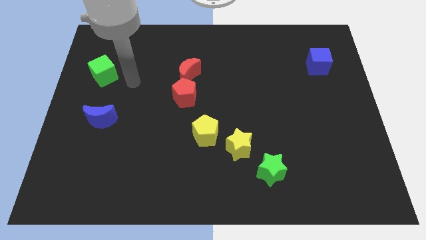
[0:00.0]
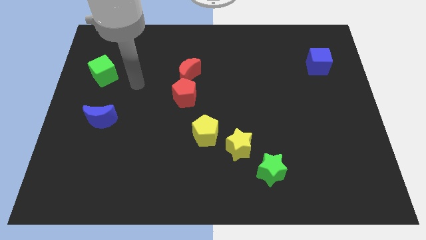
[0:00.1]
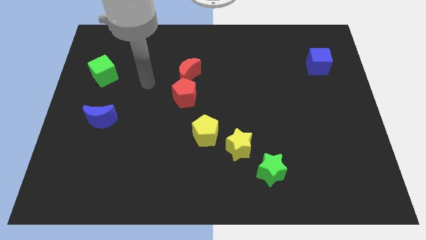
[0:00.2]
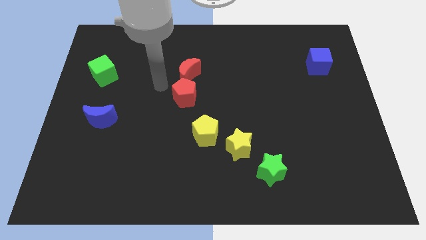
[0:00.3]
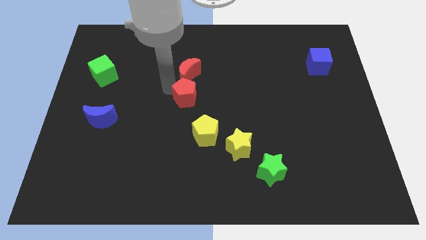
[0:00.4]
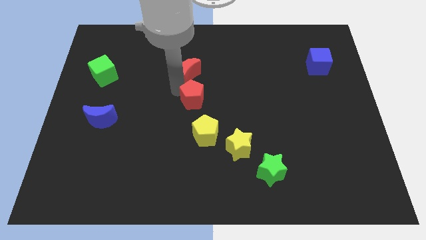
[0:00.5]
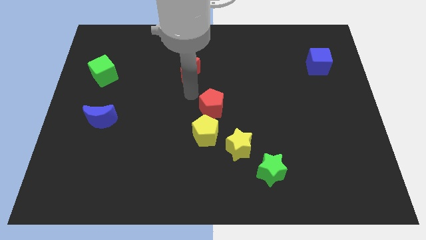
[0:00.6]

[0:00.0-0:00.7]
pull the red moon apart from the red pentagon

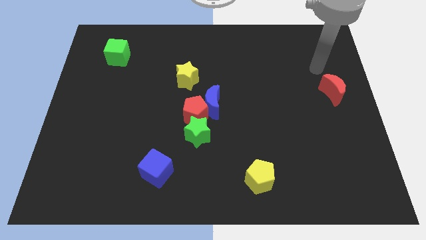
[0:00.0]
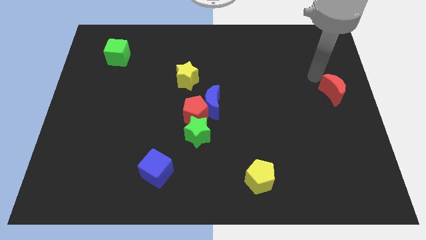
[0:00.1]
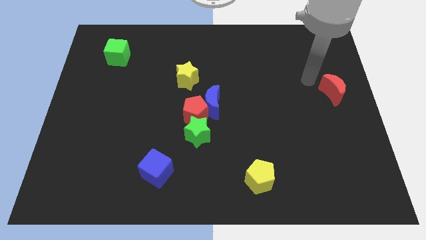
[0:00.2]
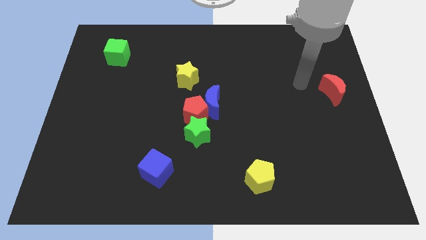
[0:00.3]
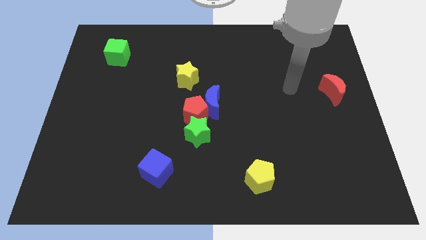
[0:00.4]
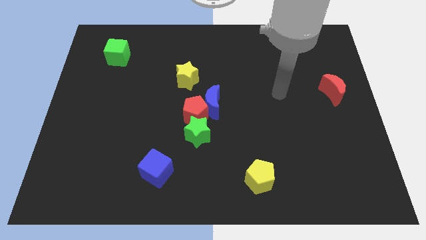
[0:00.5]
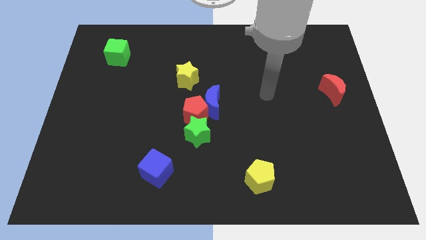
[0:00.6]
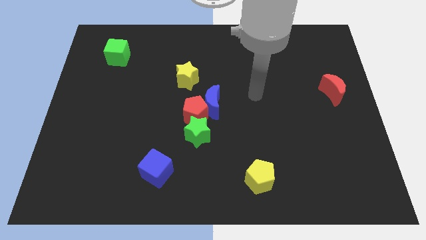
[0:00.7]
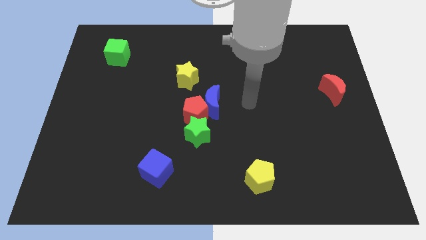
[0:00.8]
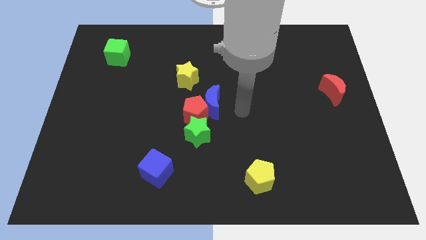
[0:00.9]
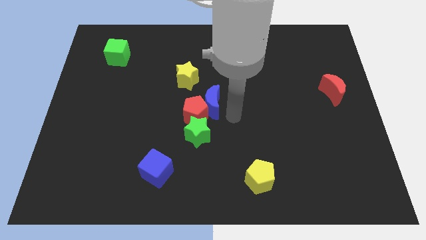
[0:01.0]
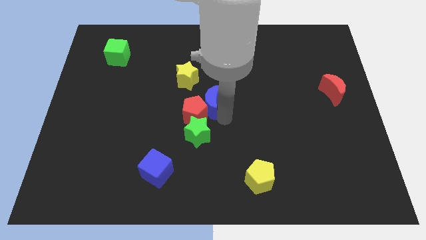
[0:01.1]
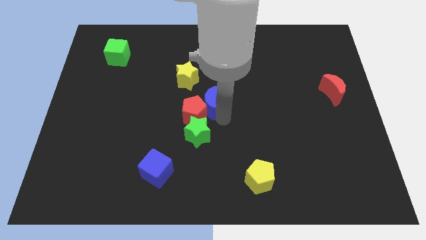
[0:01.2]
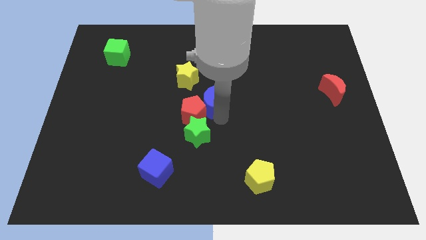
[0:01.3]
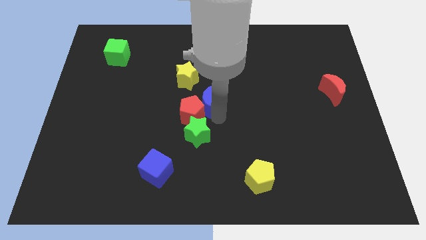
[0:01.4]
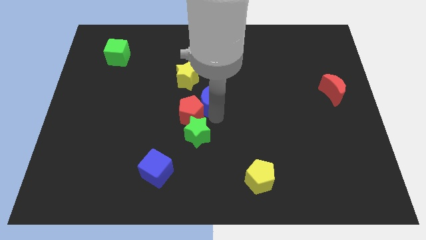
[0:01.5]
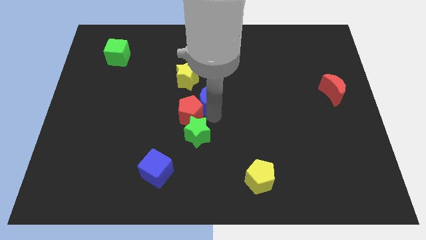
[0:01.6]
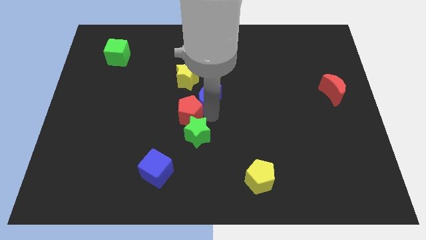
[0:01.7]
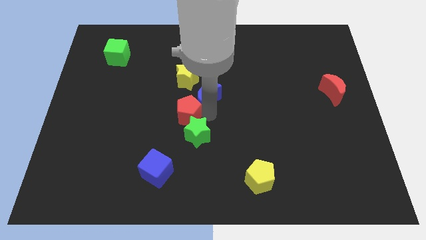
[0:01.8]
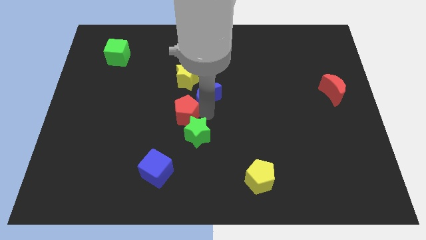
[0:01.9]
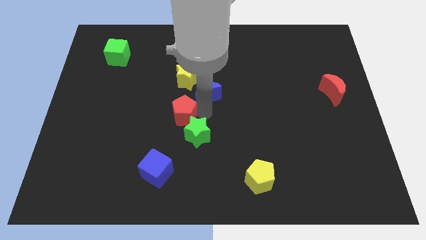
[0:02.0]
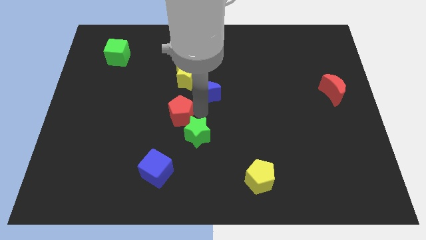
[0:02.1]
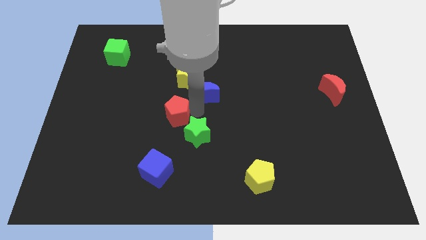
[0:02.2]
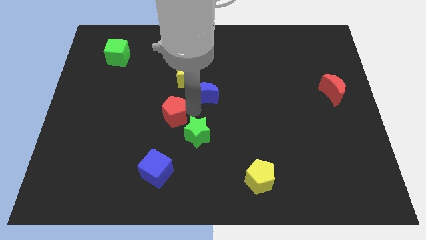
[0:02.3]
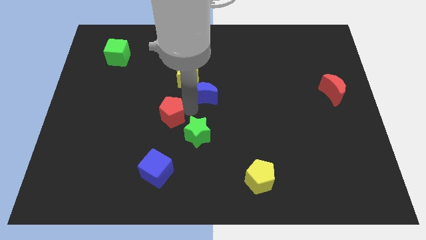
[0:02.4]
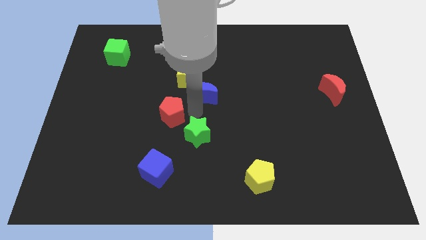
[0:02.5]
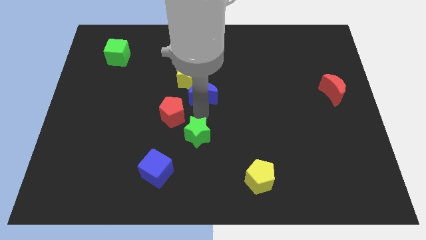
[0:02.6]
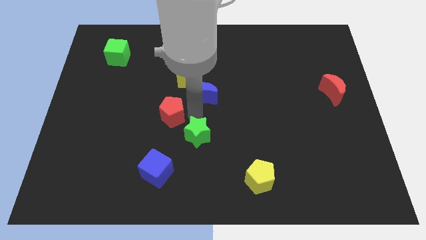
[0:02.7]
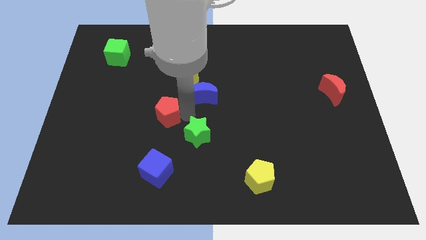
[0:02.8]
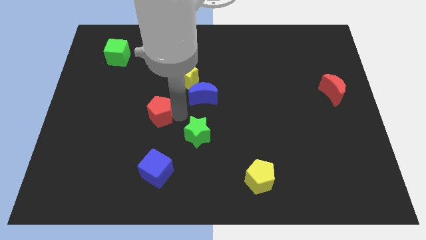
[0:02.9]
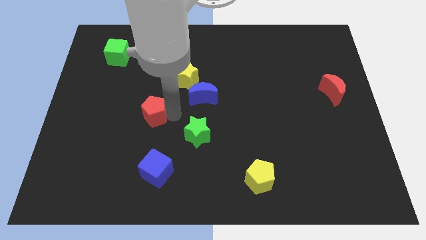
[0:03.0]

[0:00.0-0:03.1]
pull the red pentagon apart from the blue moon and green star

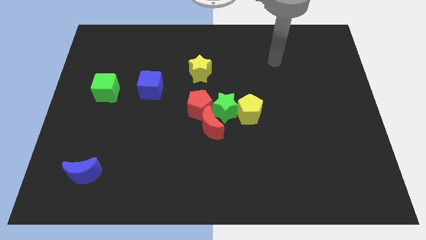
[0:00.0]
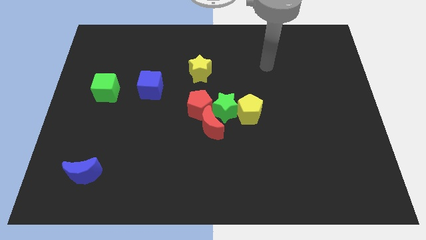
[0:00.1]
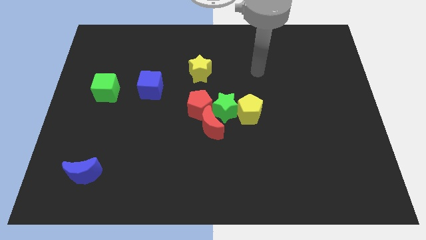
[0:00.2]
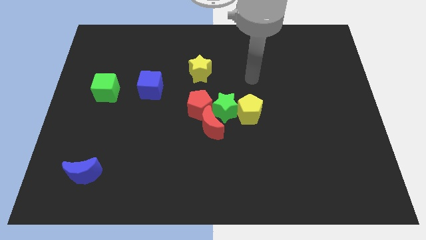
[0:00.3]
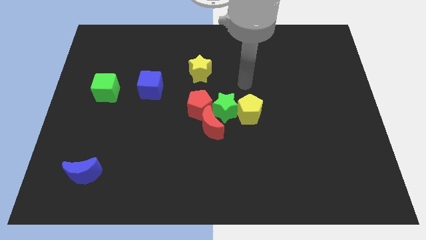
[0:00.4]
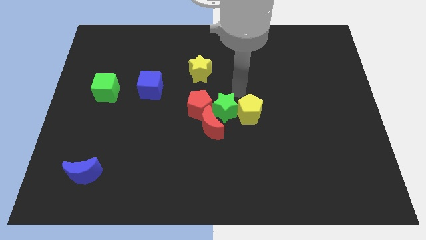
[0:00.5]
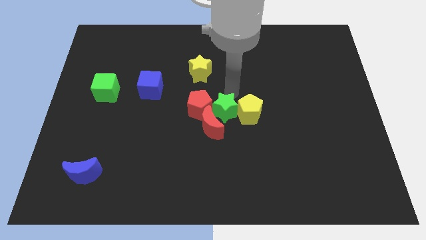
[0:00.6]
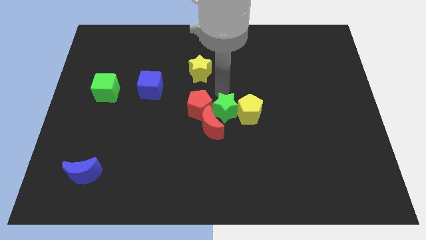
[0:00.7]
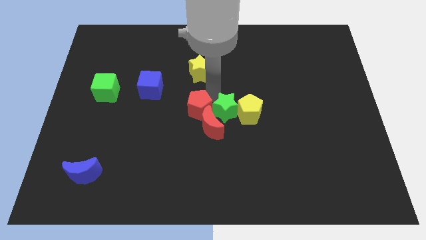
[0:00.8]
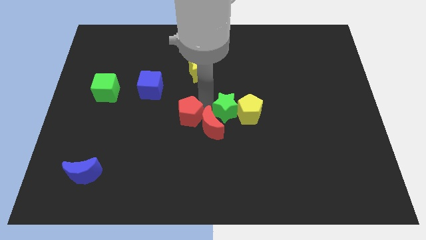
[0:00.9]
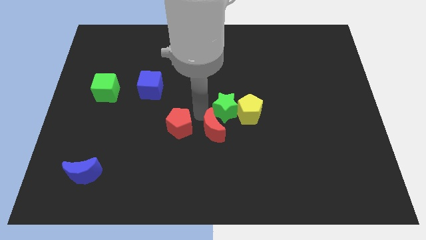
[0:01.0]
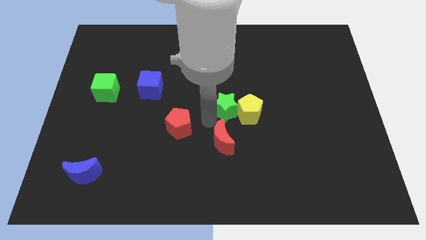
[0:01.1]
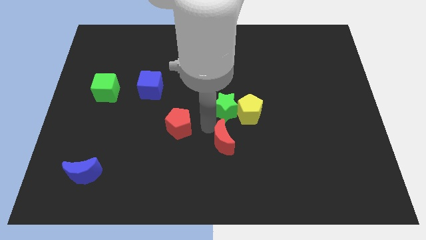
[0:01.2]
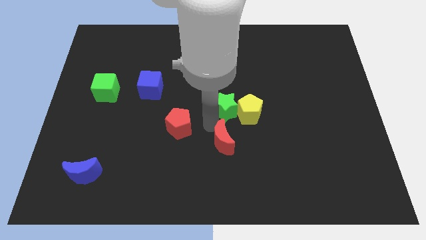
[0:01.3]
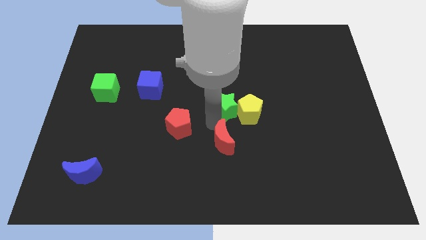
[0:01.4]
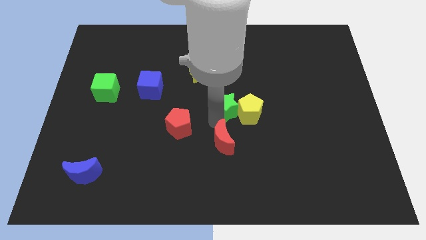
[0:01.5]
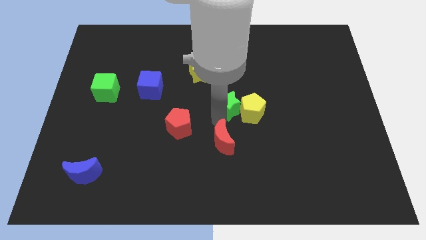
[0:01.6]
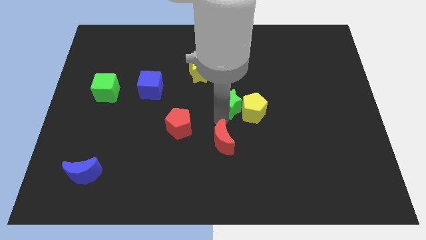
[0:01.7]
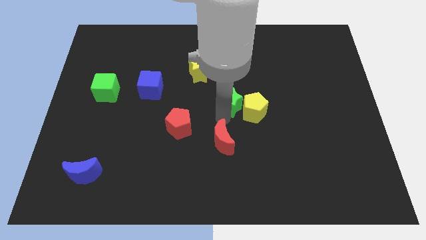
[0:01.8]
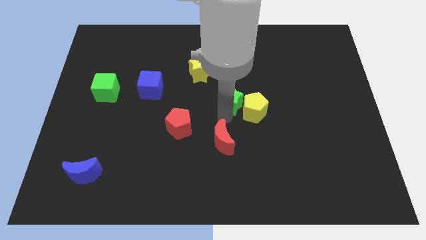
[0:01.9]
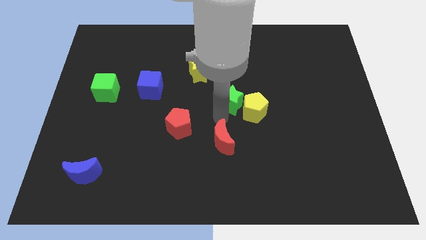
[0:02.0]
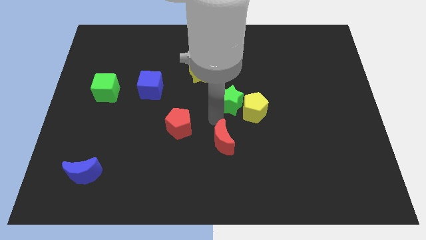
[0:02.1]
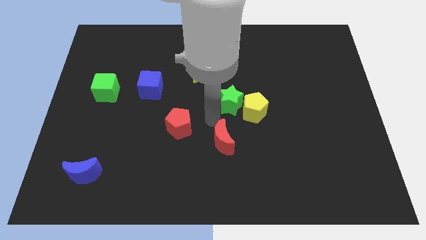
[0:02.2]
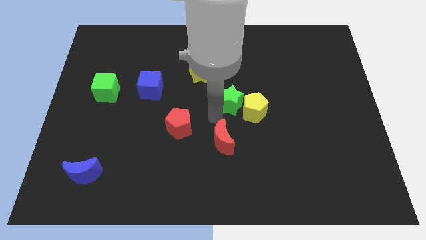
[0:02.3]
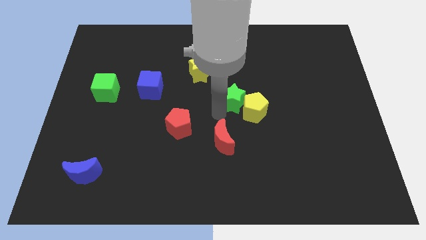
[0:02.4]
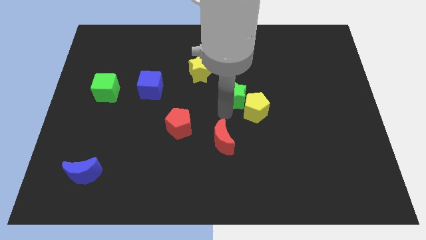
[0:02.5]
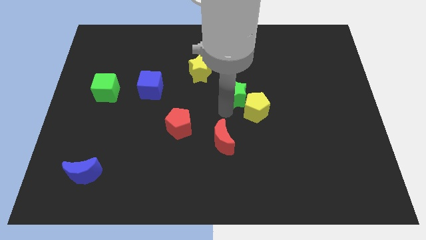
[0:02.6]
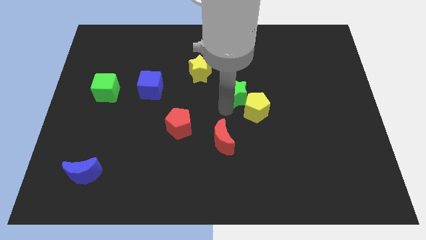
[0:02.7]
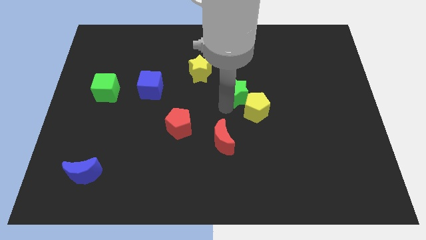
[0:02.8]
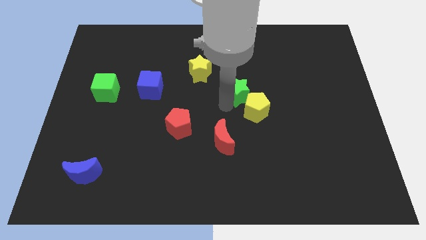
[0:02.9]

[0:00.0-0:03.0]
separate the green star from the yellow pentagon, red pentagon, and red moon

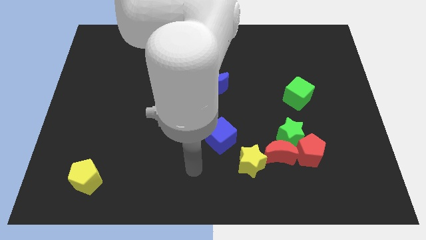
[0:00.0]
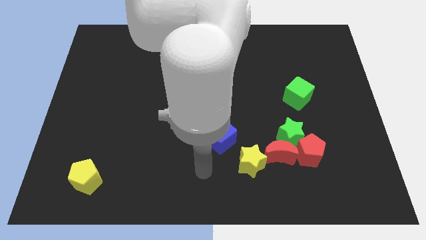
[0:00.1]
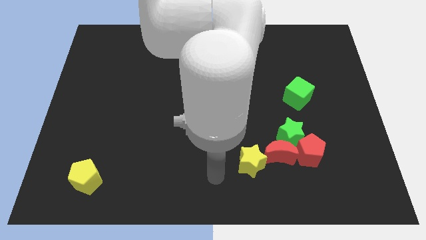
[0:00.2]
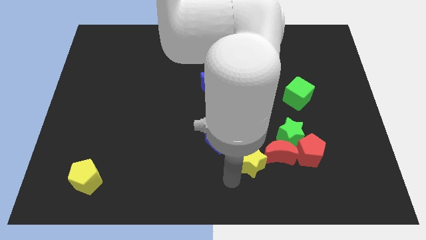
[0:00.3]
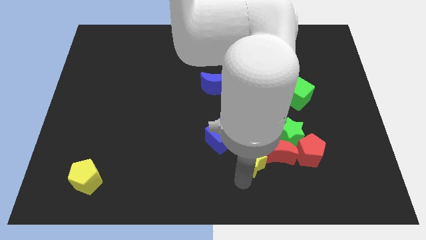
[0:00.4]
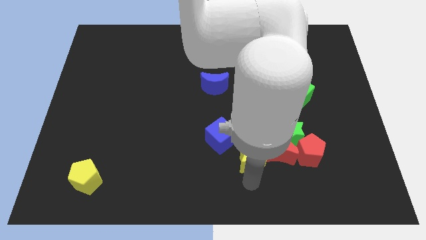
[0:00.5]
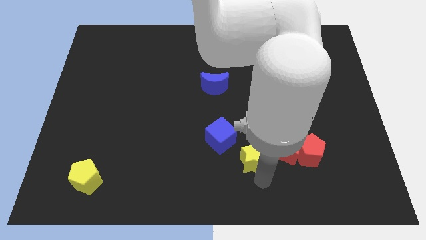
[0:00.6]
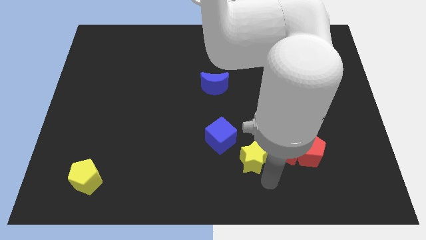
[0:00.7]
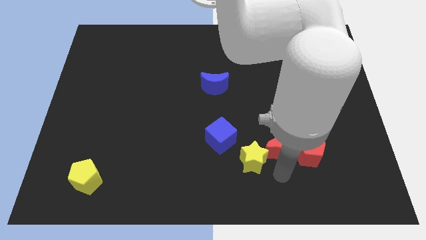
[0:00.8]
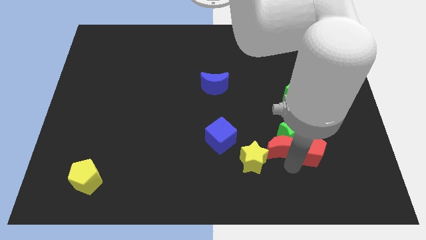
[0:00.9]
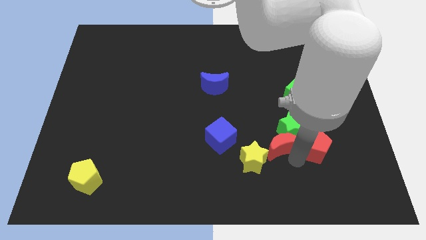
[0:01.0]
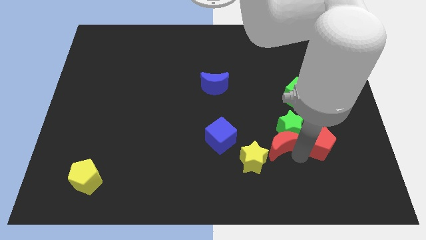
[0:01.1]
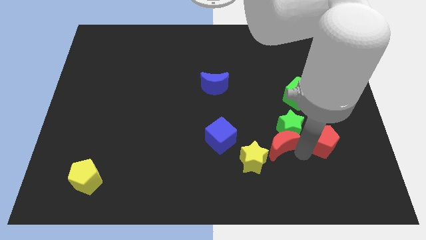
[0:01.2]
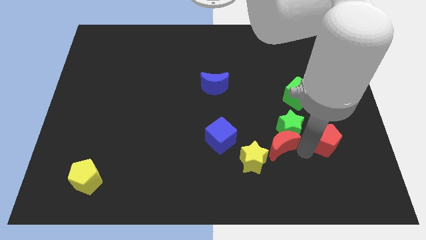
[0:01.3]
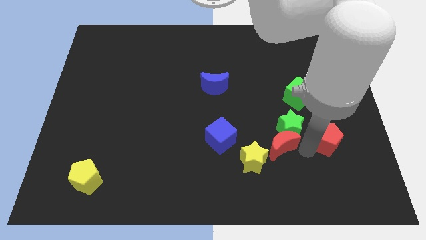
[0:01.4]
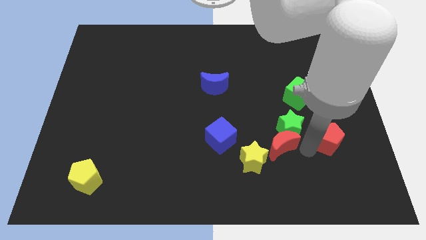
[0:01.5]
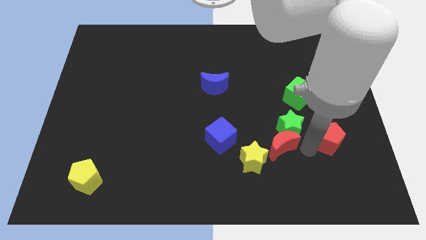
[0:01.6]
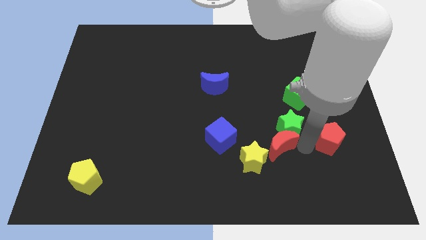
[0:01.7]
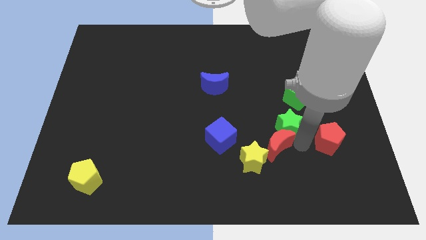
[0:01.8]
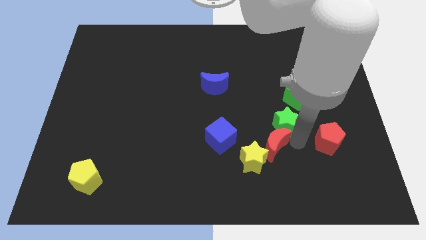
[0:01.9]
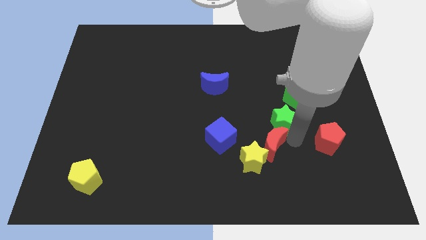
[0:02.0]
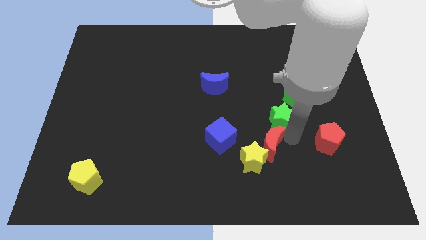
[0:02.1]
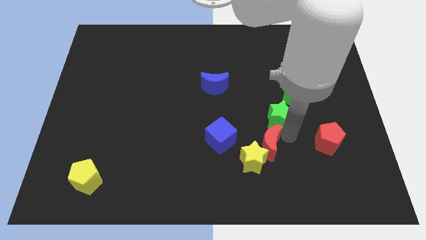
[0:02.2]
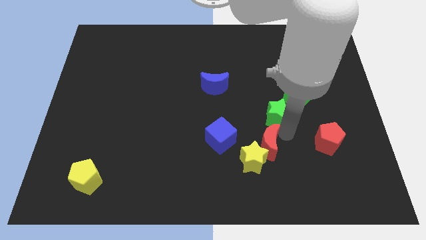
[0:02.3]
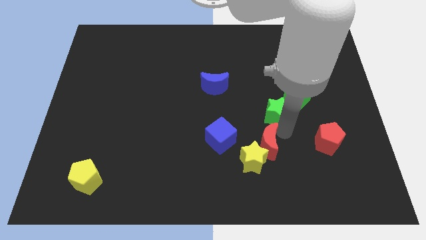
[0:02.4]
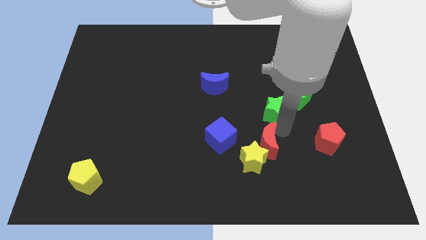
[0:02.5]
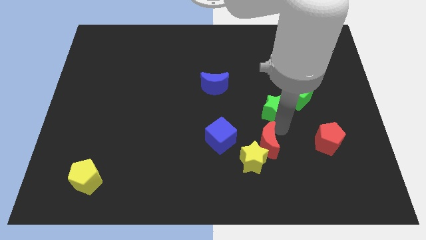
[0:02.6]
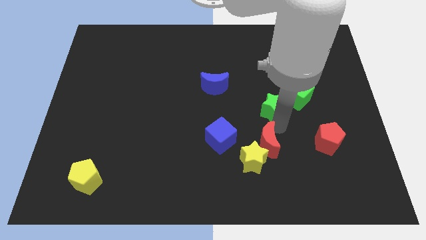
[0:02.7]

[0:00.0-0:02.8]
separate the green star from the red moon and red pentagon

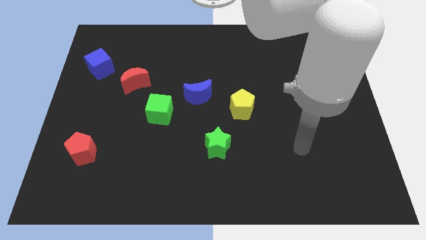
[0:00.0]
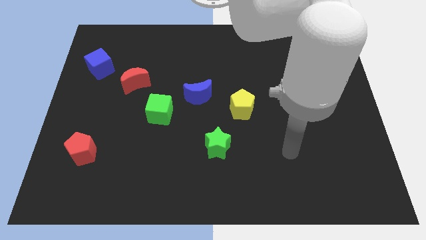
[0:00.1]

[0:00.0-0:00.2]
move the blue moon away from the green cube
